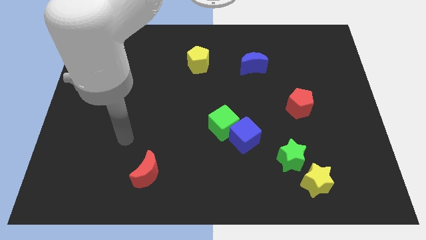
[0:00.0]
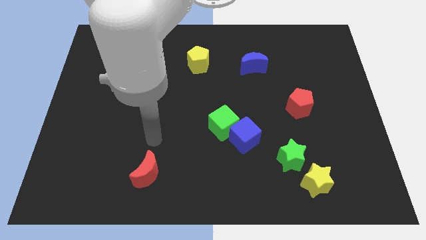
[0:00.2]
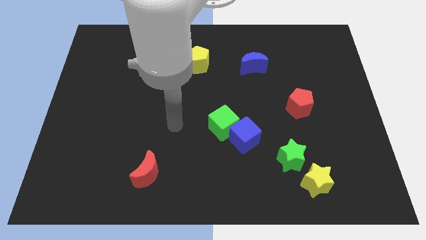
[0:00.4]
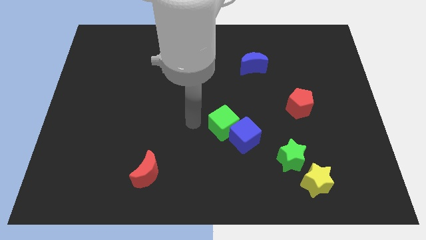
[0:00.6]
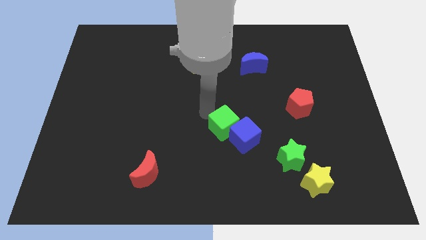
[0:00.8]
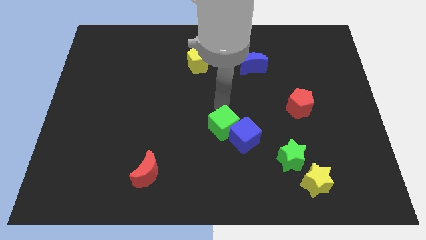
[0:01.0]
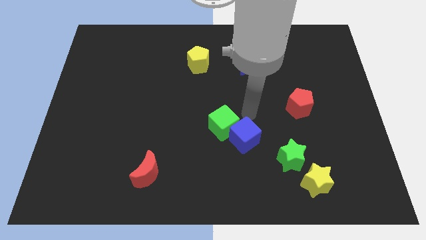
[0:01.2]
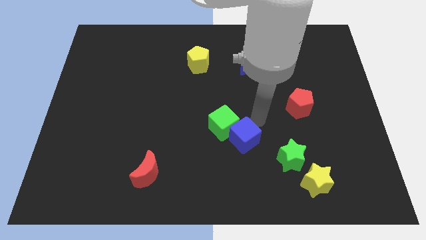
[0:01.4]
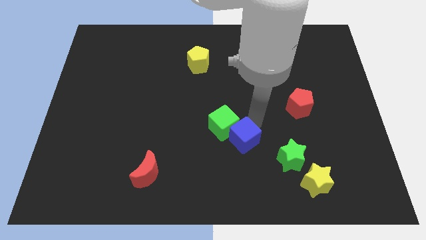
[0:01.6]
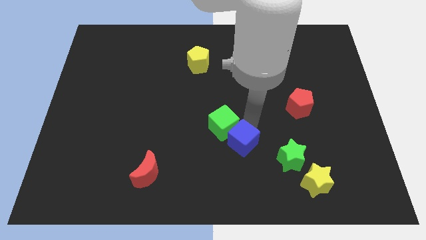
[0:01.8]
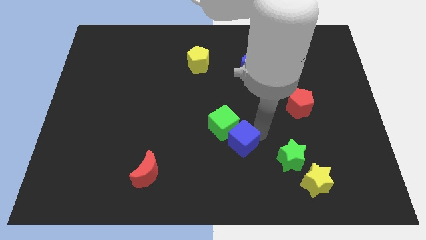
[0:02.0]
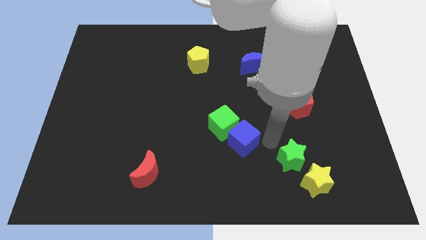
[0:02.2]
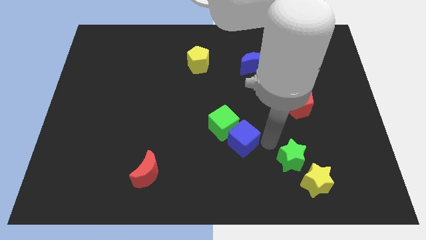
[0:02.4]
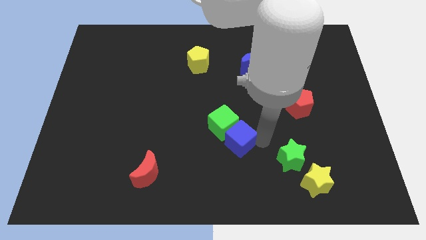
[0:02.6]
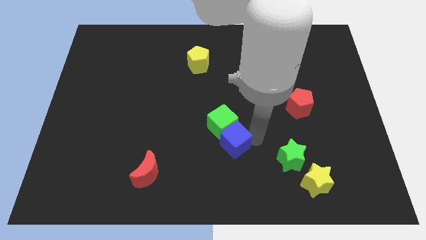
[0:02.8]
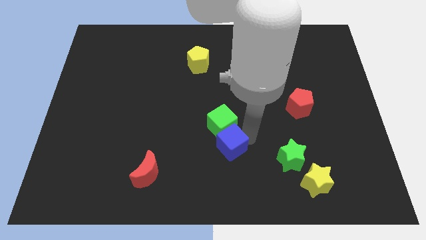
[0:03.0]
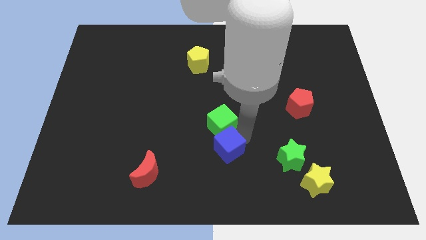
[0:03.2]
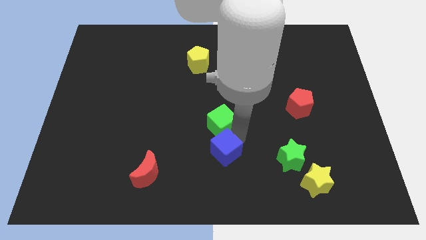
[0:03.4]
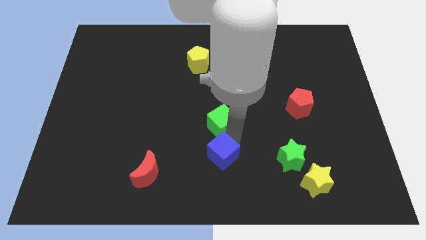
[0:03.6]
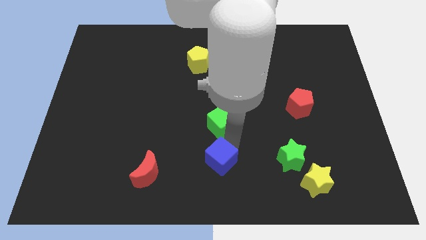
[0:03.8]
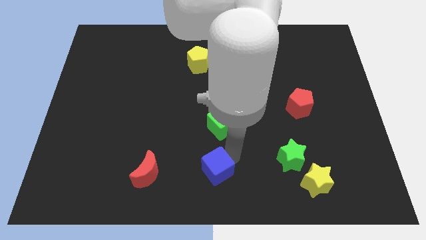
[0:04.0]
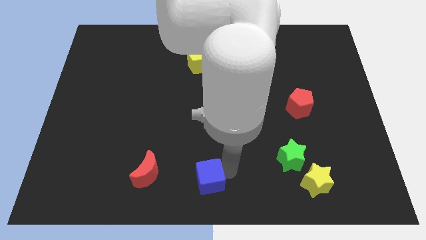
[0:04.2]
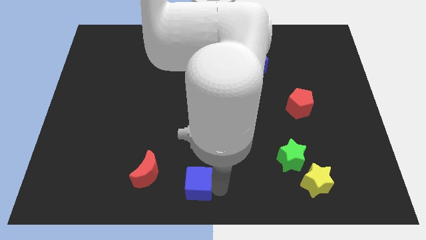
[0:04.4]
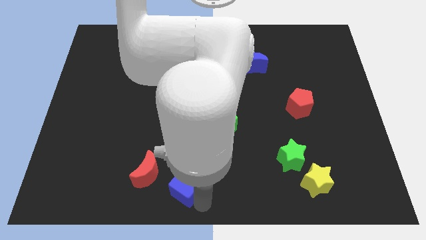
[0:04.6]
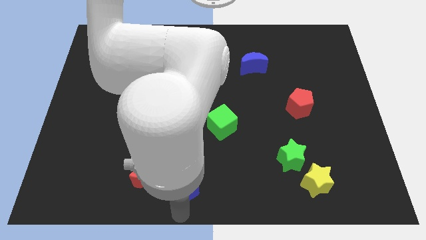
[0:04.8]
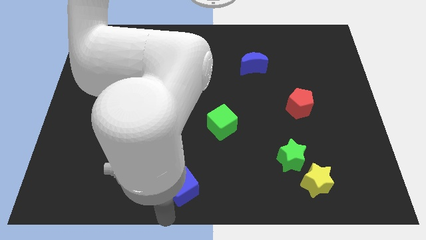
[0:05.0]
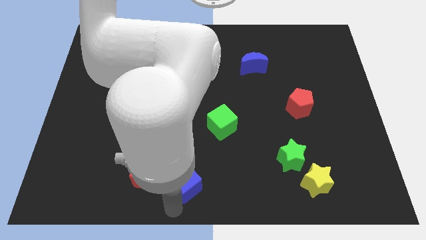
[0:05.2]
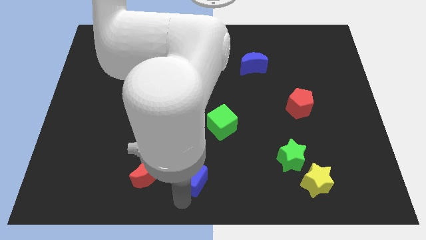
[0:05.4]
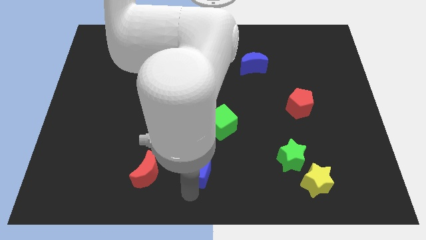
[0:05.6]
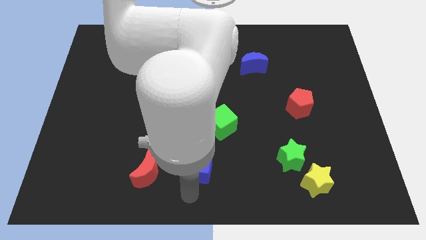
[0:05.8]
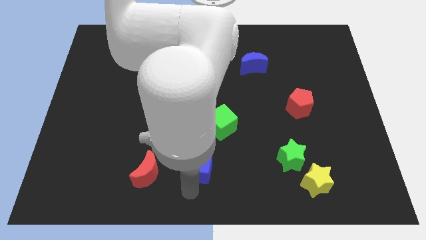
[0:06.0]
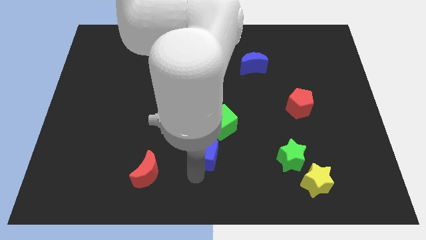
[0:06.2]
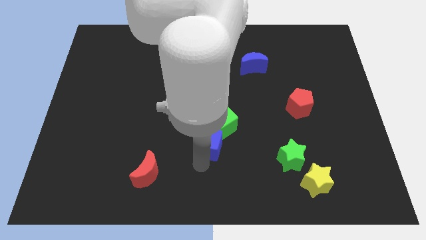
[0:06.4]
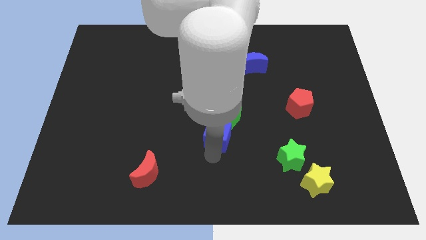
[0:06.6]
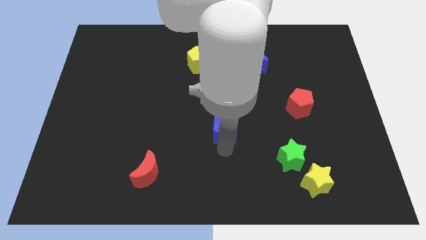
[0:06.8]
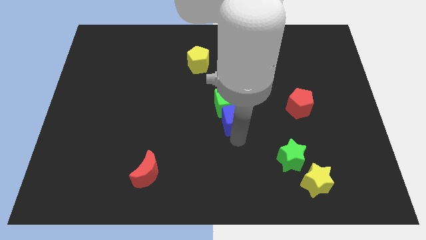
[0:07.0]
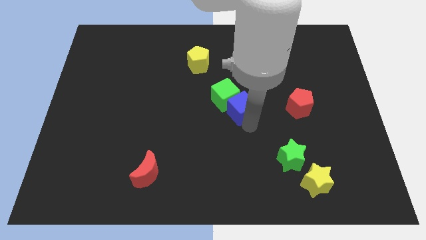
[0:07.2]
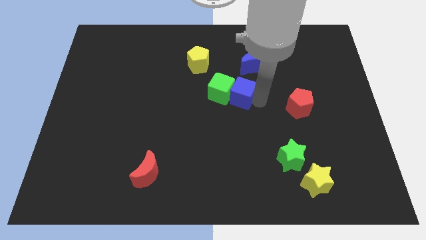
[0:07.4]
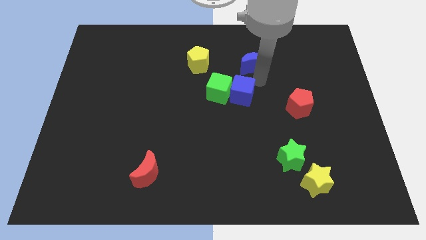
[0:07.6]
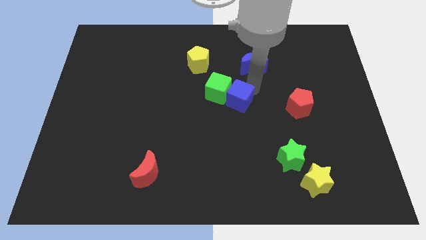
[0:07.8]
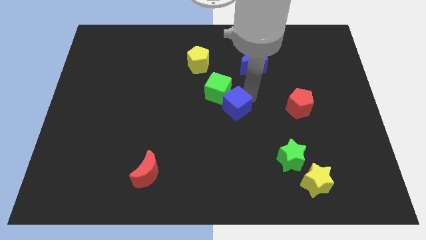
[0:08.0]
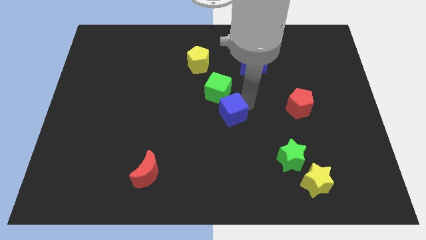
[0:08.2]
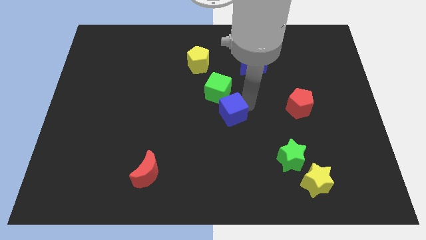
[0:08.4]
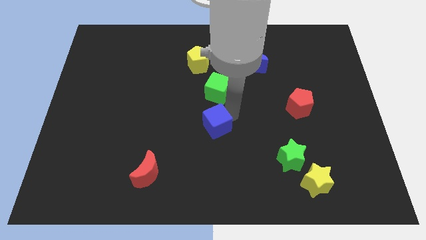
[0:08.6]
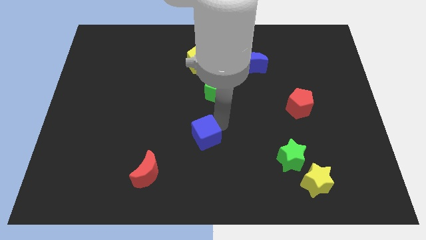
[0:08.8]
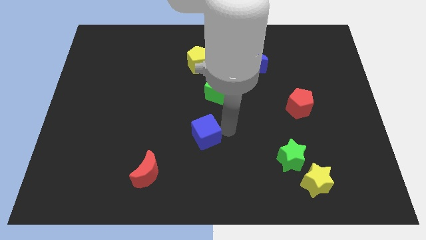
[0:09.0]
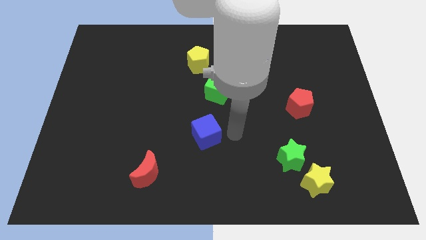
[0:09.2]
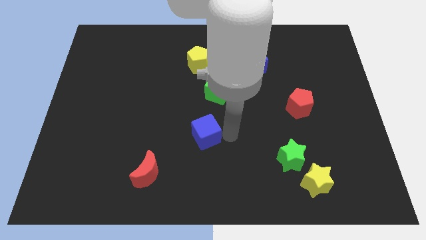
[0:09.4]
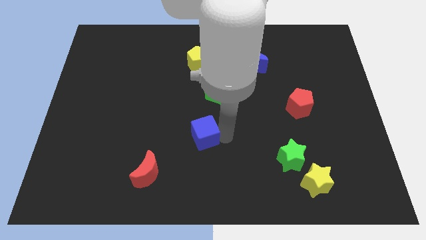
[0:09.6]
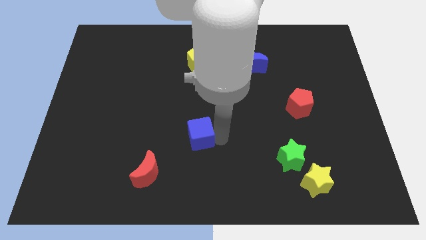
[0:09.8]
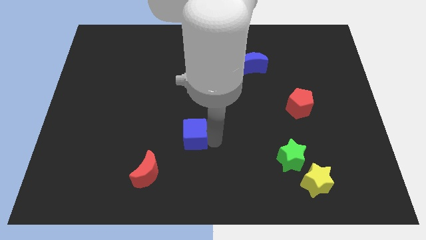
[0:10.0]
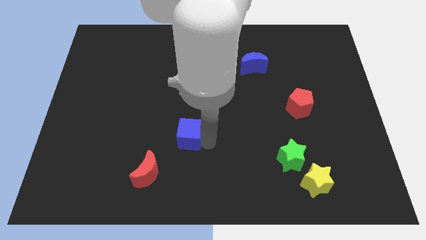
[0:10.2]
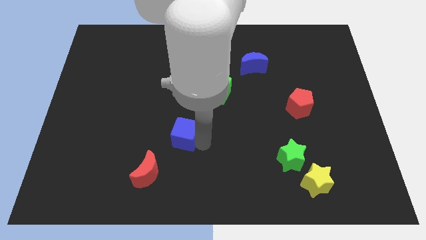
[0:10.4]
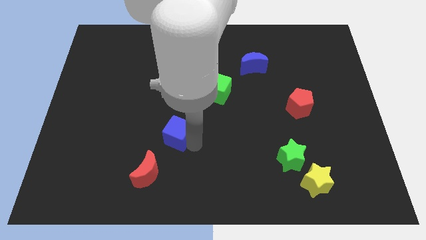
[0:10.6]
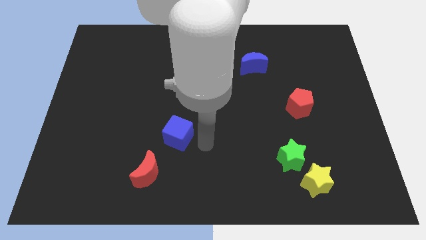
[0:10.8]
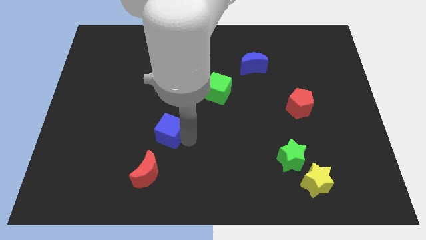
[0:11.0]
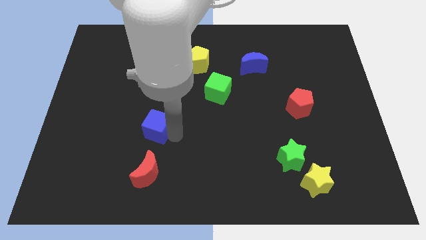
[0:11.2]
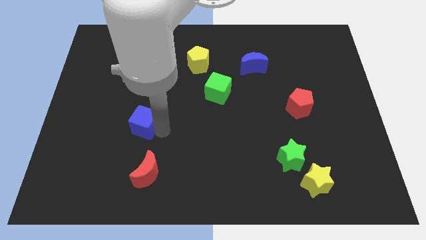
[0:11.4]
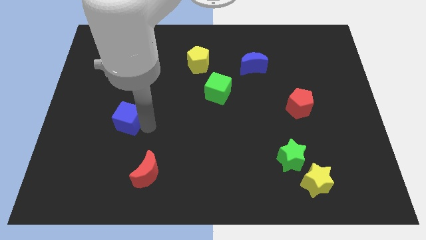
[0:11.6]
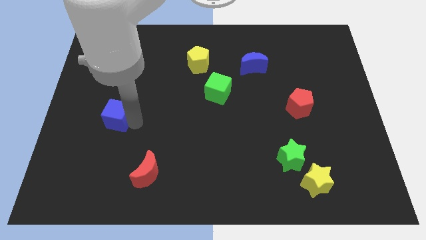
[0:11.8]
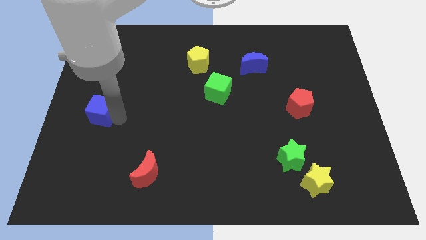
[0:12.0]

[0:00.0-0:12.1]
slide the blue cube to the left side

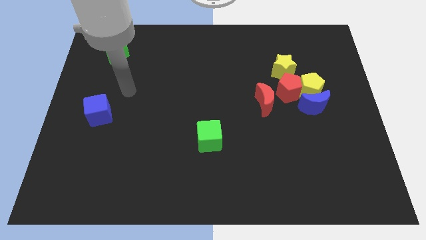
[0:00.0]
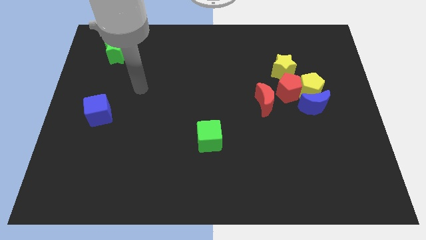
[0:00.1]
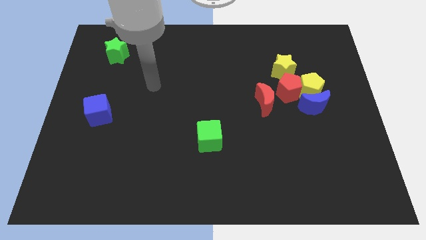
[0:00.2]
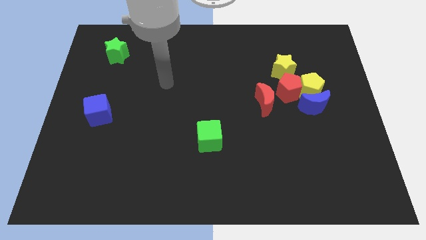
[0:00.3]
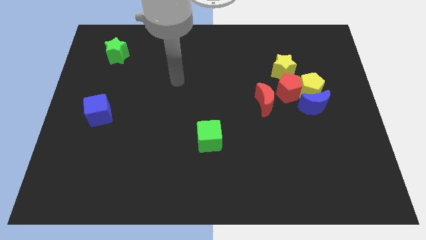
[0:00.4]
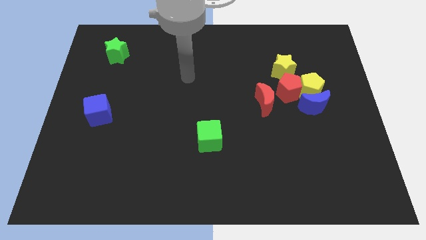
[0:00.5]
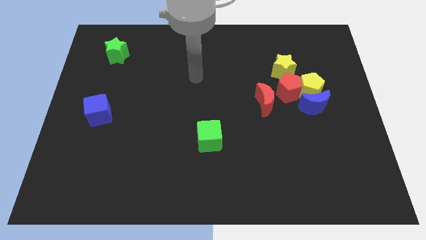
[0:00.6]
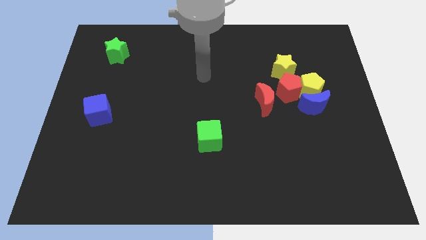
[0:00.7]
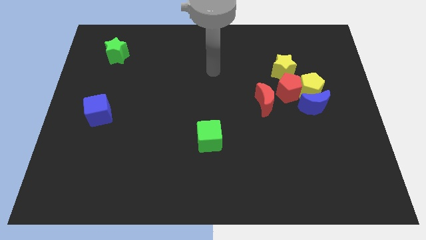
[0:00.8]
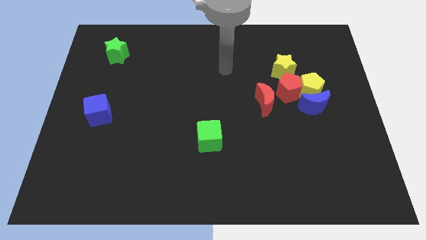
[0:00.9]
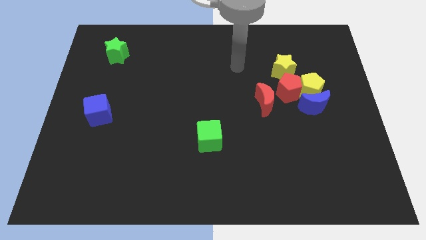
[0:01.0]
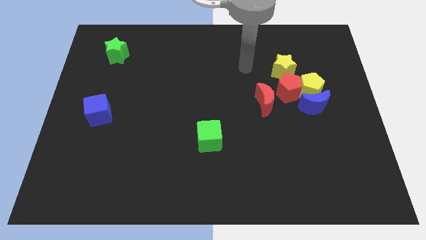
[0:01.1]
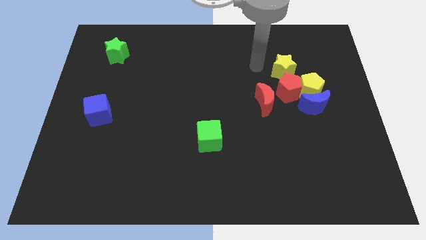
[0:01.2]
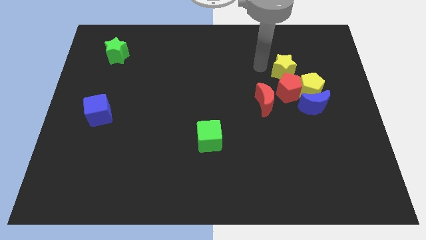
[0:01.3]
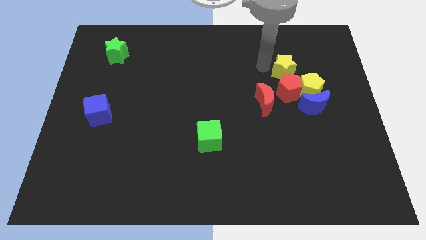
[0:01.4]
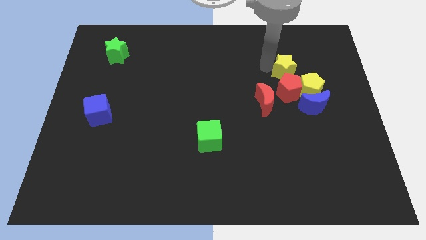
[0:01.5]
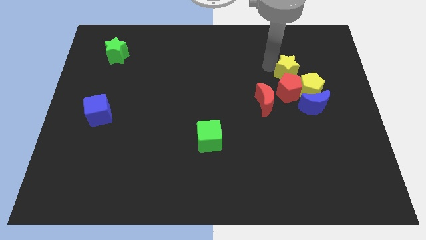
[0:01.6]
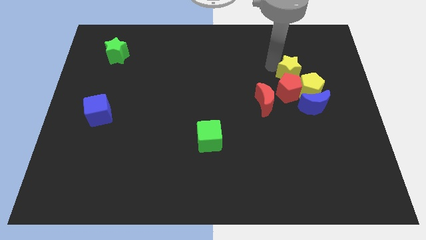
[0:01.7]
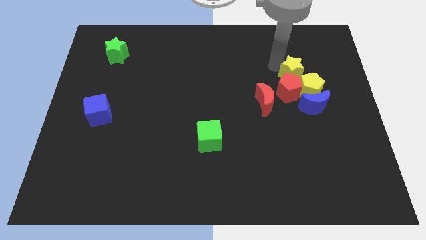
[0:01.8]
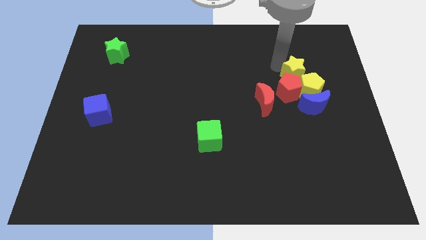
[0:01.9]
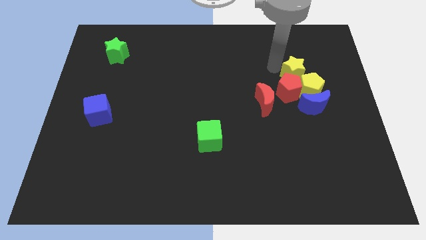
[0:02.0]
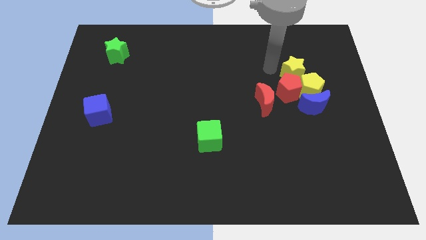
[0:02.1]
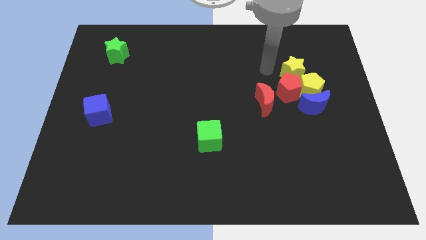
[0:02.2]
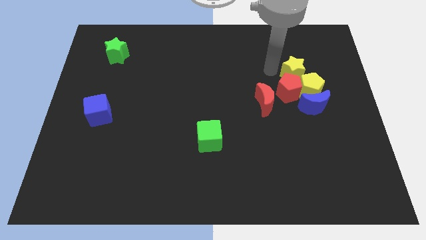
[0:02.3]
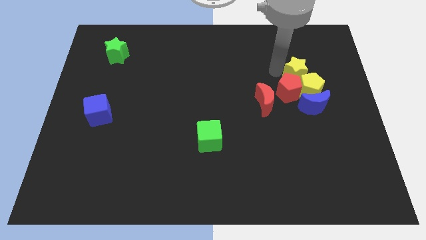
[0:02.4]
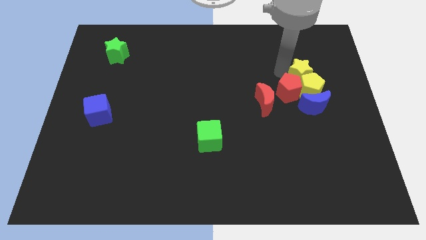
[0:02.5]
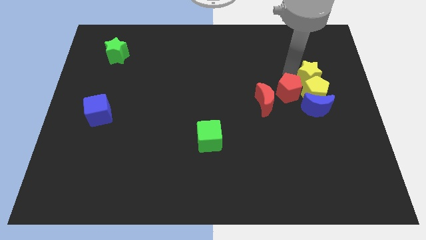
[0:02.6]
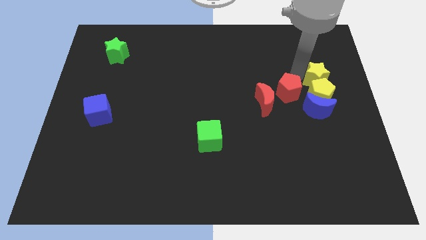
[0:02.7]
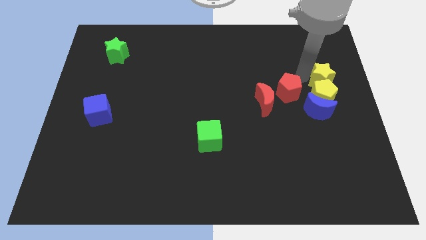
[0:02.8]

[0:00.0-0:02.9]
move the yellow star to the right side of the board
